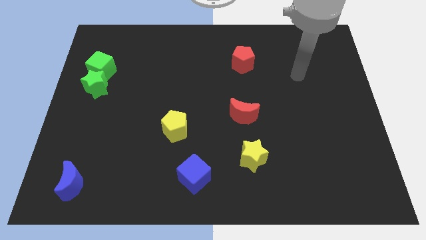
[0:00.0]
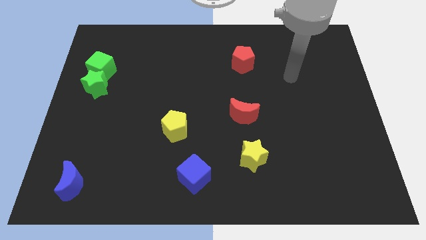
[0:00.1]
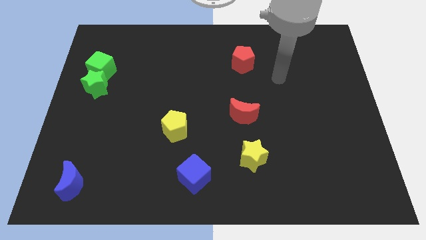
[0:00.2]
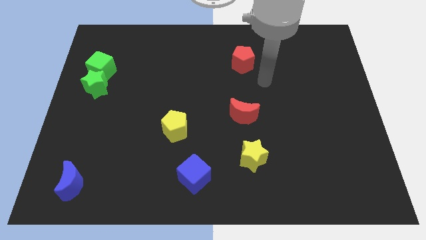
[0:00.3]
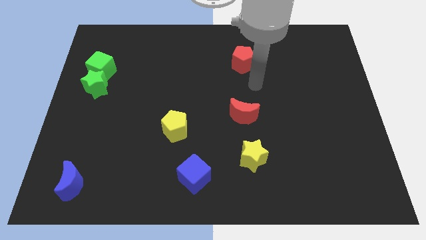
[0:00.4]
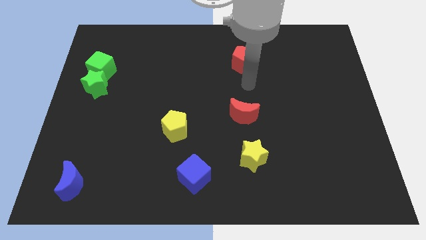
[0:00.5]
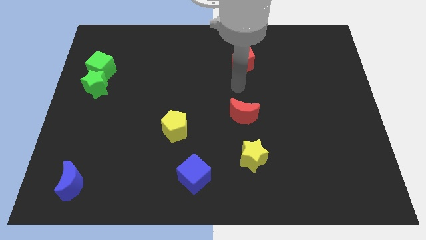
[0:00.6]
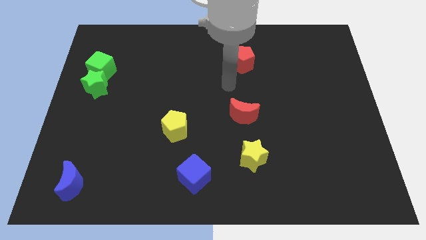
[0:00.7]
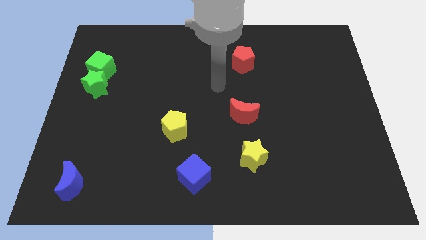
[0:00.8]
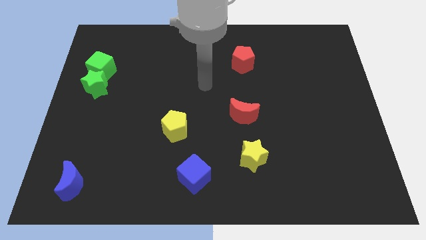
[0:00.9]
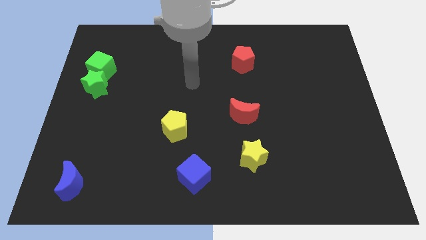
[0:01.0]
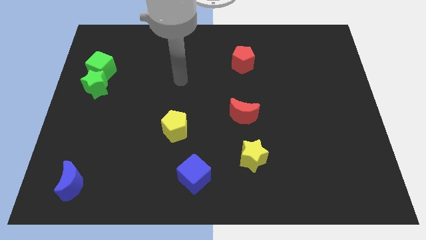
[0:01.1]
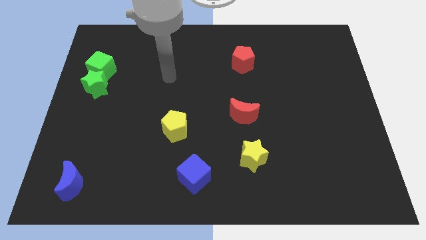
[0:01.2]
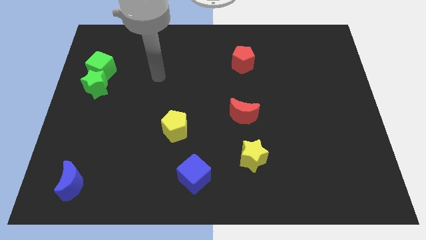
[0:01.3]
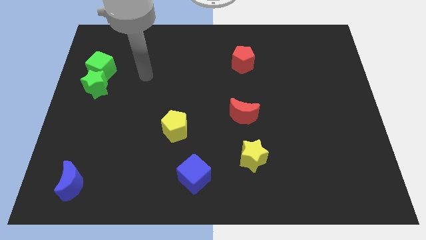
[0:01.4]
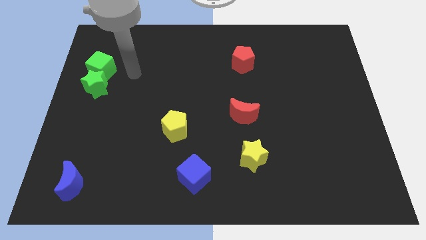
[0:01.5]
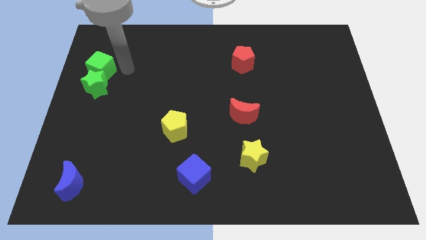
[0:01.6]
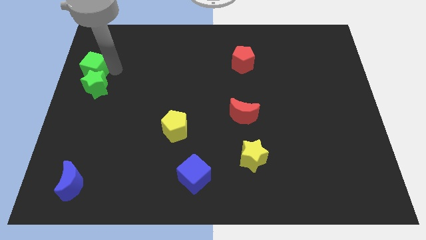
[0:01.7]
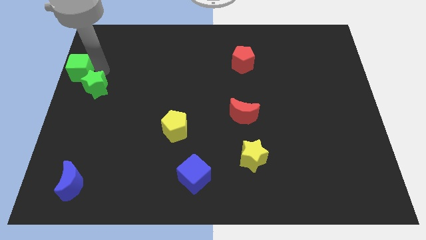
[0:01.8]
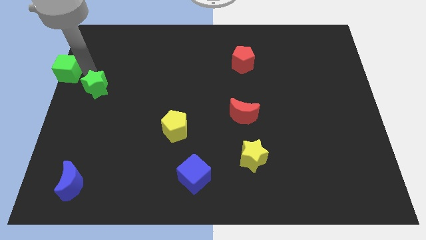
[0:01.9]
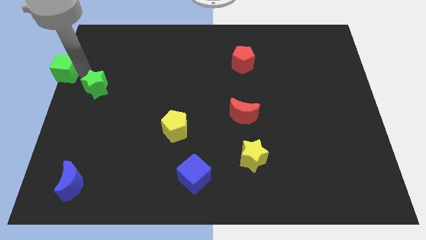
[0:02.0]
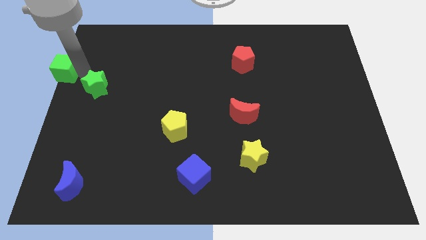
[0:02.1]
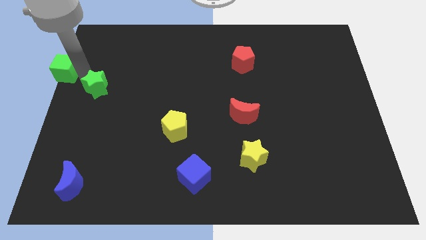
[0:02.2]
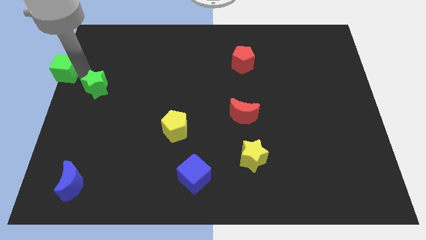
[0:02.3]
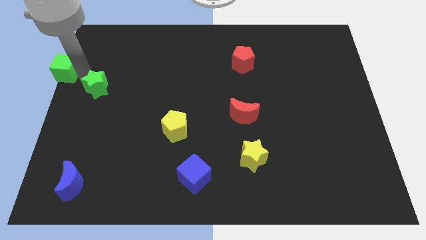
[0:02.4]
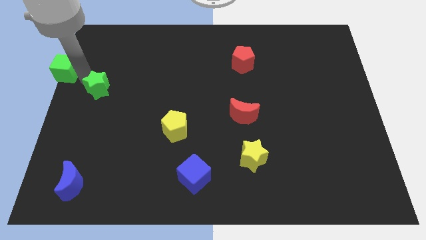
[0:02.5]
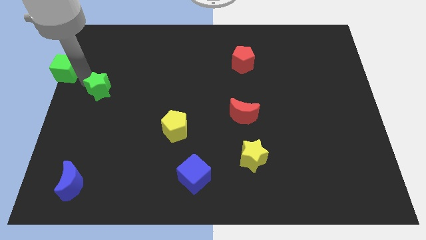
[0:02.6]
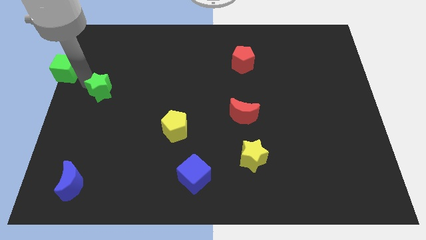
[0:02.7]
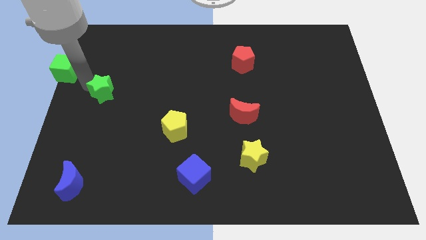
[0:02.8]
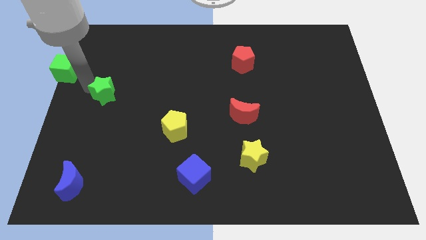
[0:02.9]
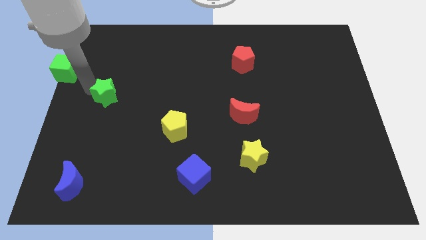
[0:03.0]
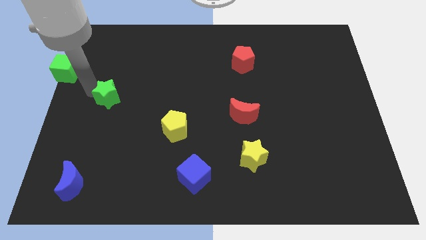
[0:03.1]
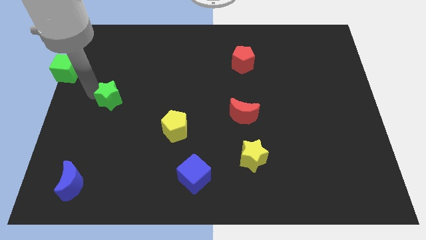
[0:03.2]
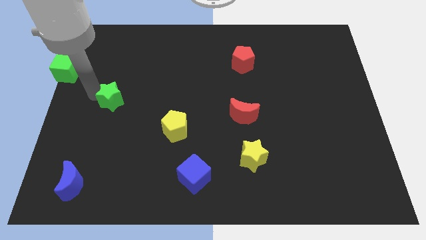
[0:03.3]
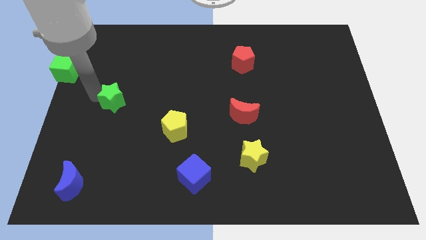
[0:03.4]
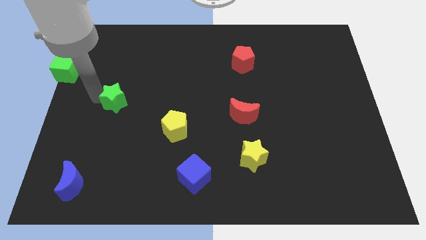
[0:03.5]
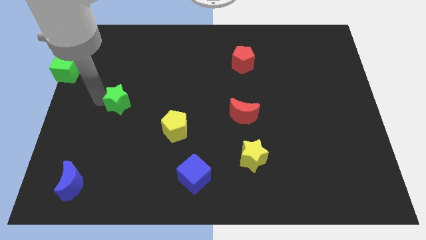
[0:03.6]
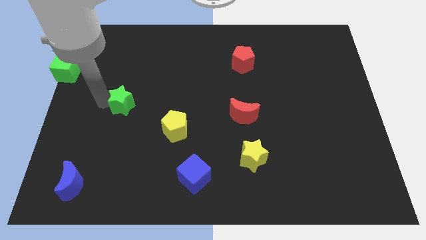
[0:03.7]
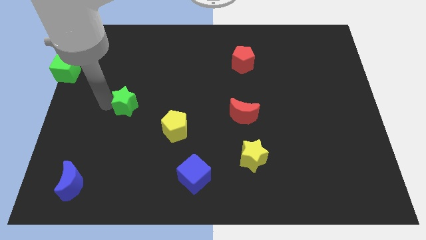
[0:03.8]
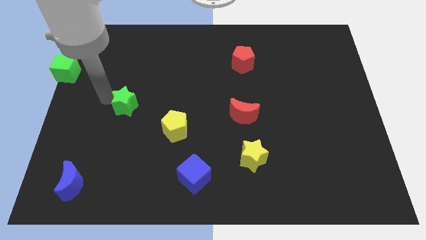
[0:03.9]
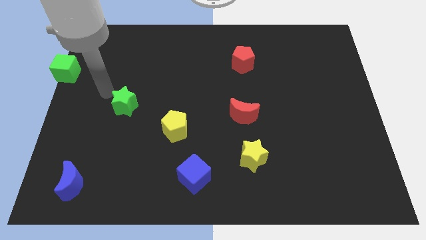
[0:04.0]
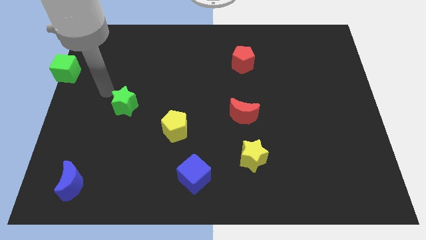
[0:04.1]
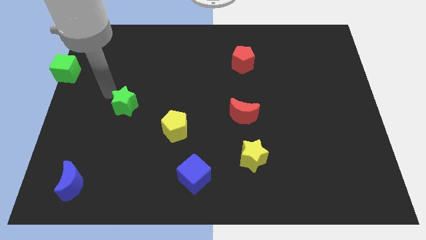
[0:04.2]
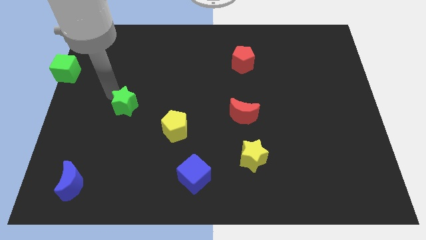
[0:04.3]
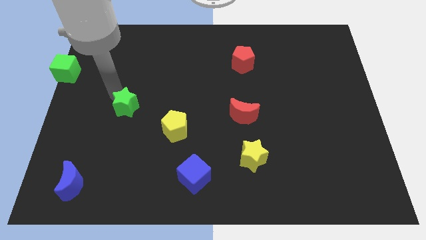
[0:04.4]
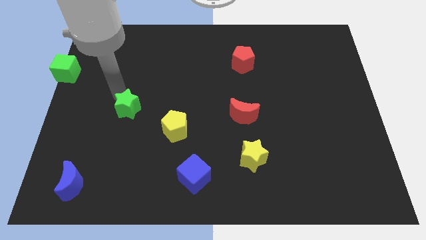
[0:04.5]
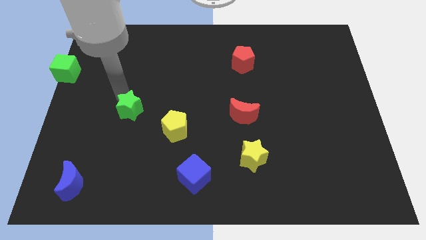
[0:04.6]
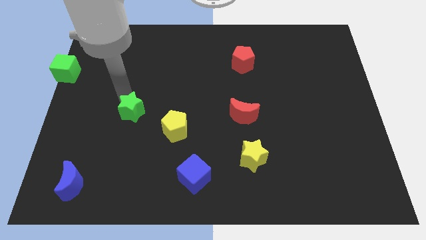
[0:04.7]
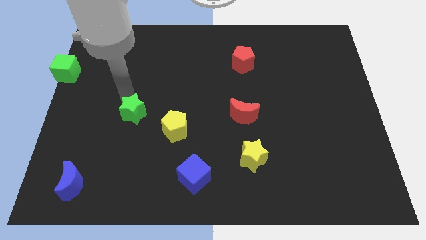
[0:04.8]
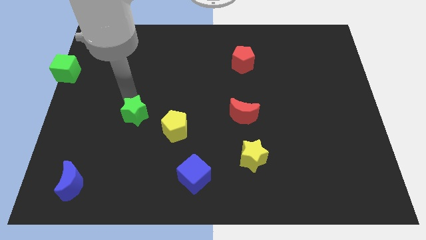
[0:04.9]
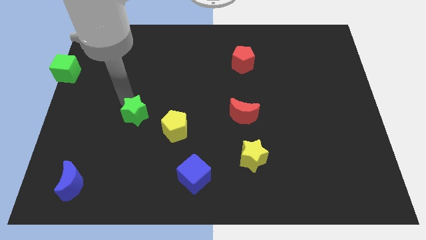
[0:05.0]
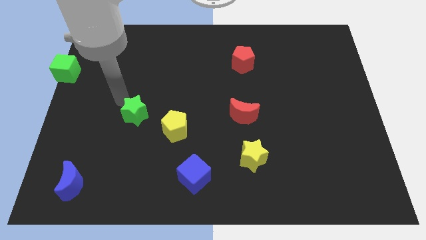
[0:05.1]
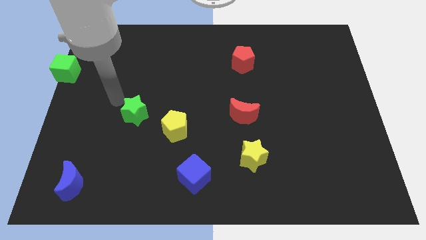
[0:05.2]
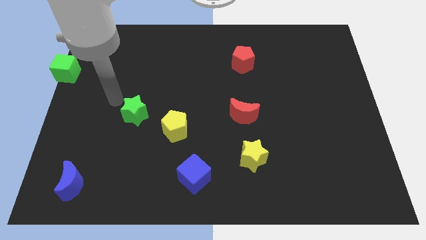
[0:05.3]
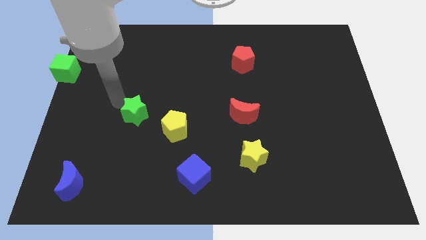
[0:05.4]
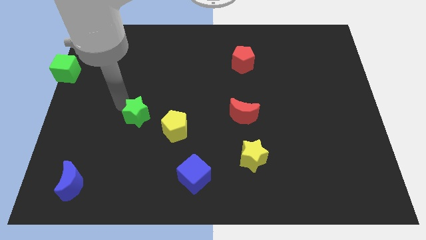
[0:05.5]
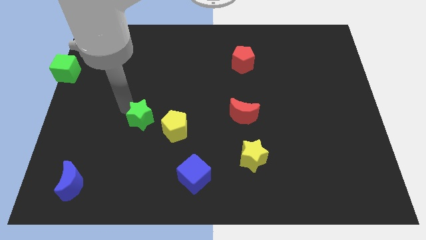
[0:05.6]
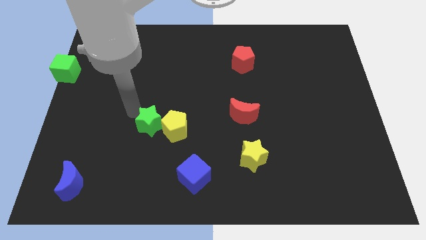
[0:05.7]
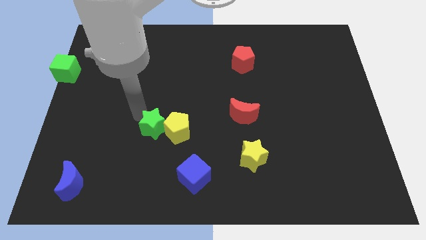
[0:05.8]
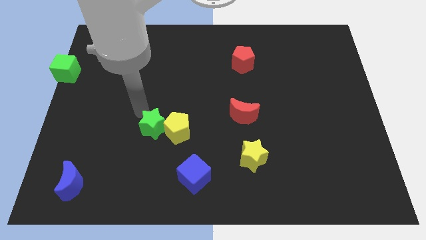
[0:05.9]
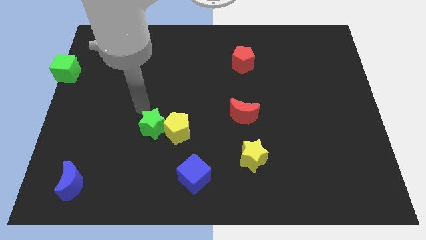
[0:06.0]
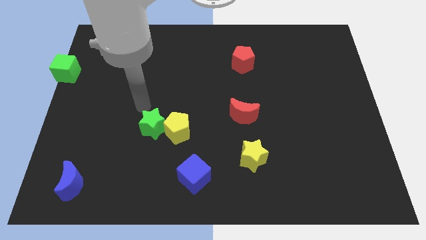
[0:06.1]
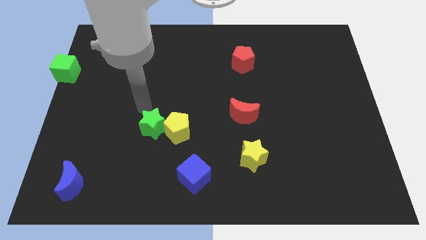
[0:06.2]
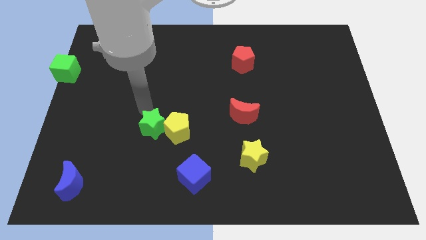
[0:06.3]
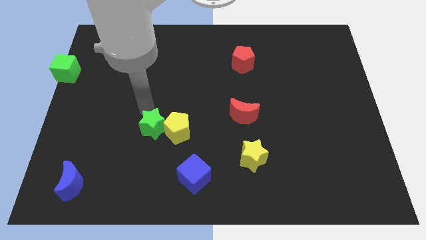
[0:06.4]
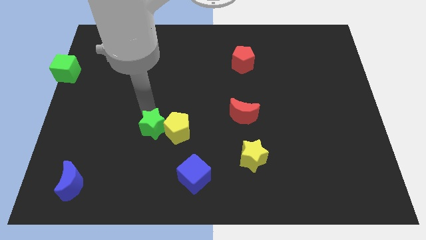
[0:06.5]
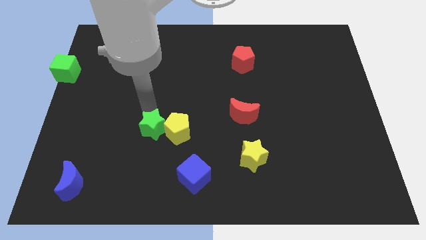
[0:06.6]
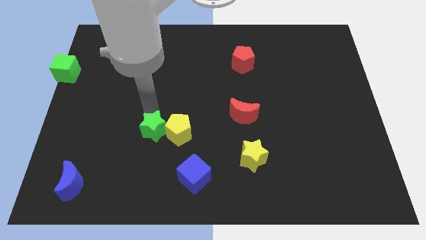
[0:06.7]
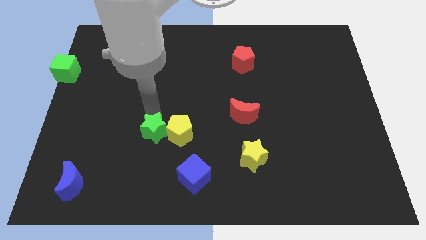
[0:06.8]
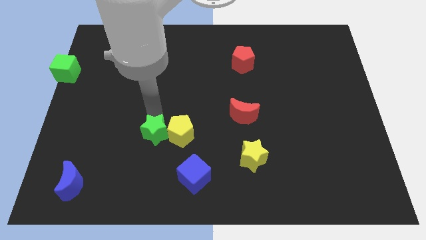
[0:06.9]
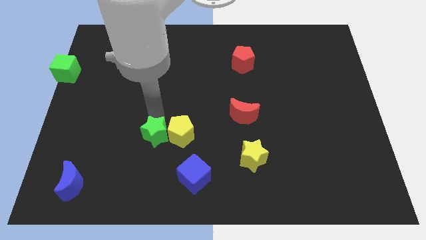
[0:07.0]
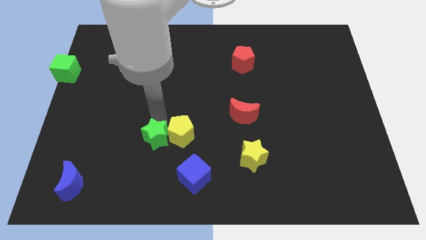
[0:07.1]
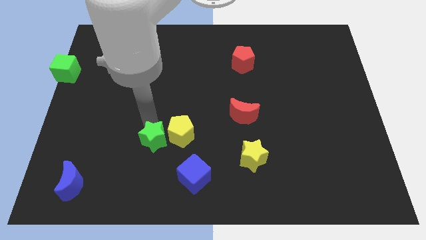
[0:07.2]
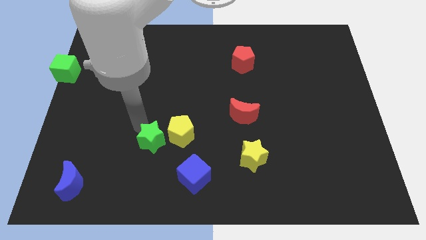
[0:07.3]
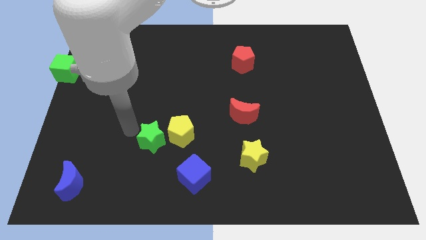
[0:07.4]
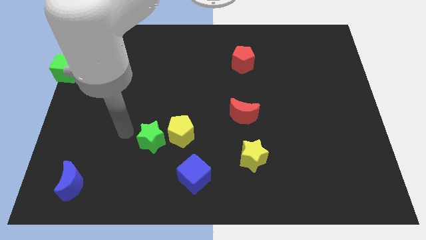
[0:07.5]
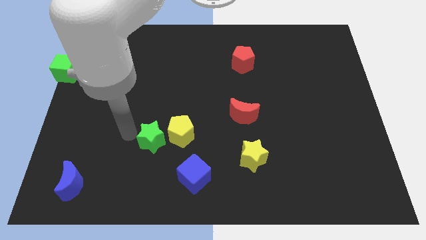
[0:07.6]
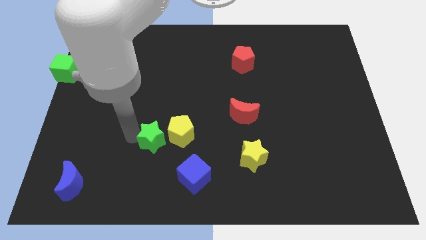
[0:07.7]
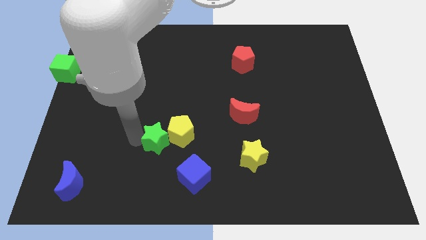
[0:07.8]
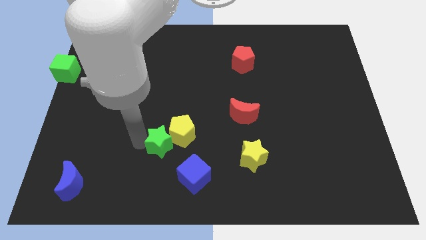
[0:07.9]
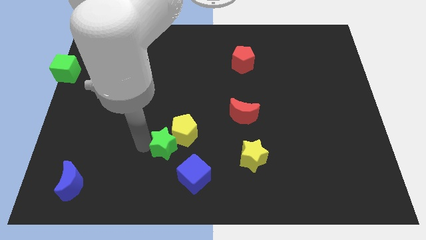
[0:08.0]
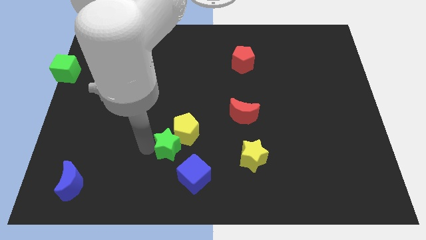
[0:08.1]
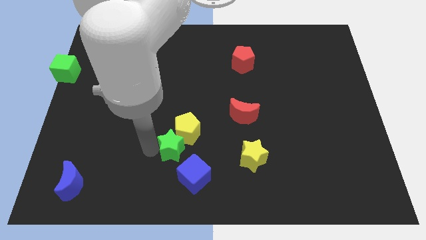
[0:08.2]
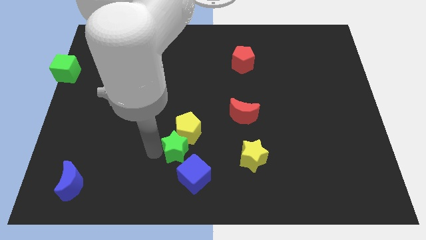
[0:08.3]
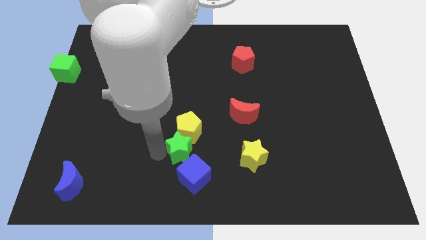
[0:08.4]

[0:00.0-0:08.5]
slide the green star to the bottom right of the yellow pentagon
